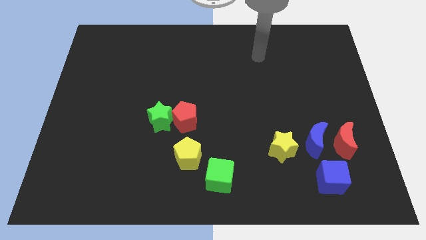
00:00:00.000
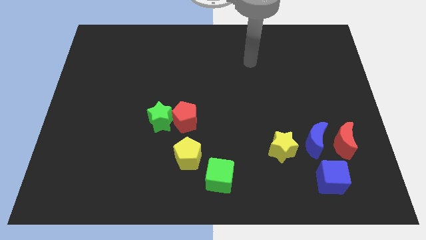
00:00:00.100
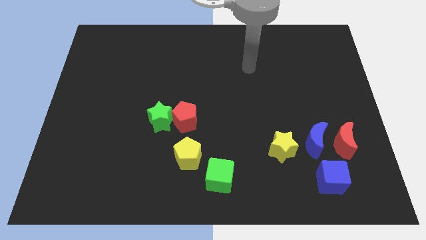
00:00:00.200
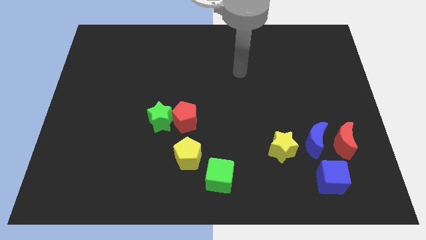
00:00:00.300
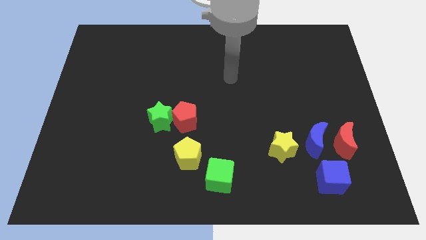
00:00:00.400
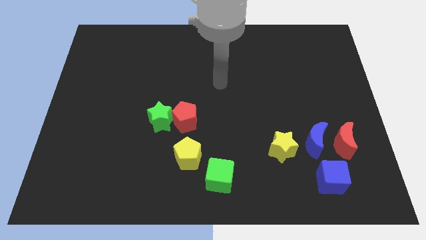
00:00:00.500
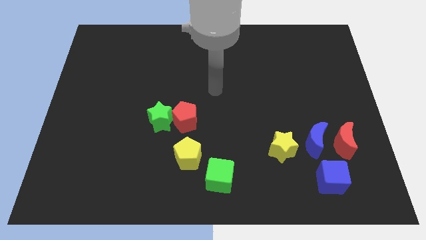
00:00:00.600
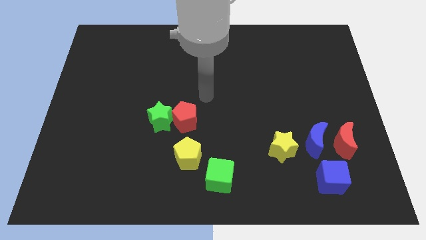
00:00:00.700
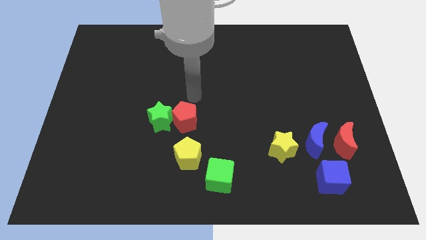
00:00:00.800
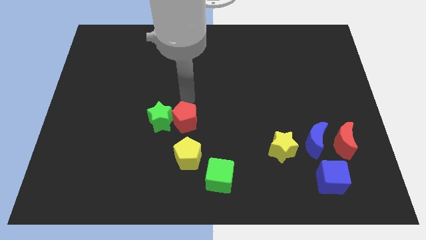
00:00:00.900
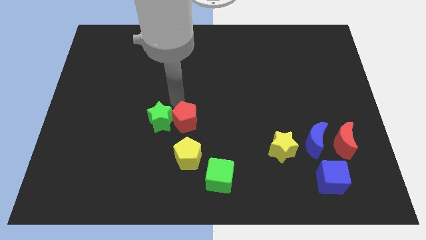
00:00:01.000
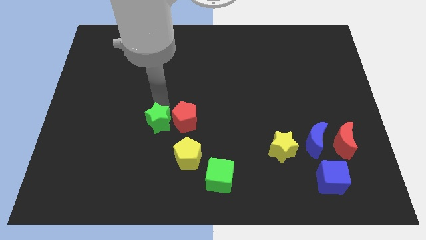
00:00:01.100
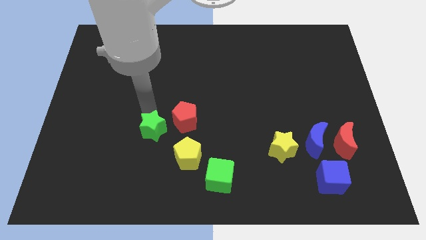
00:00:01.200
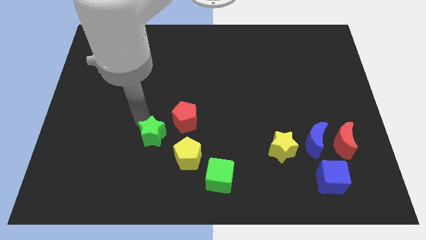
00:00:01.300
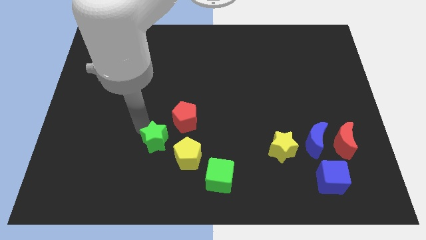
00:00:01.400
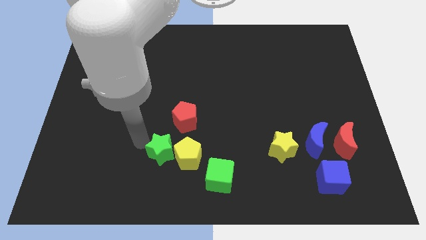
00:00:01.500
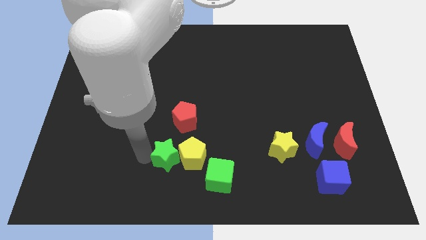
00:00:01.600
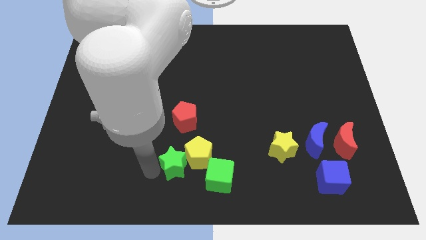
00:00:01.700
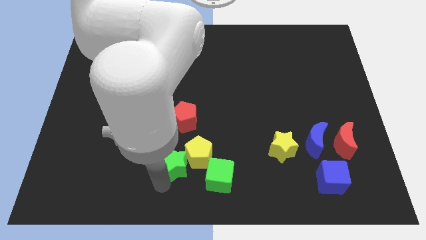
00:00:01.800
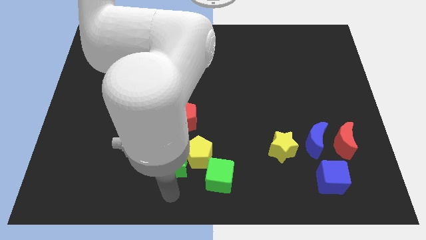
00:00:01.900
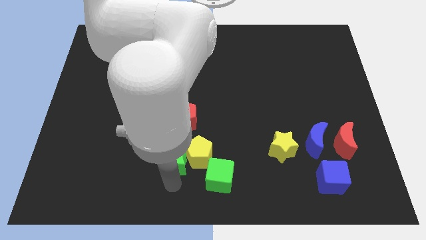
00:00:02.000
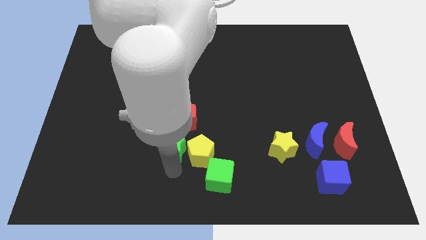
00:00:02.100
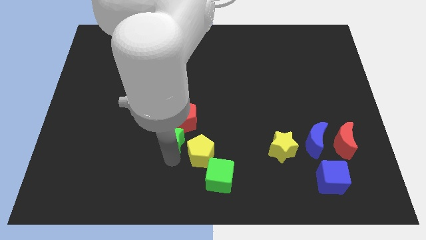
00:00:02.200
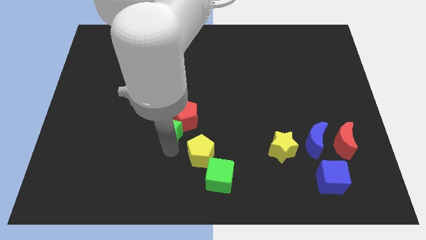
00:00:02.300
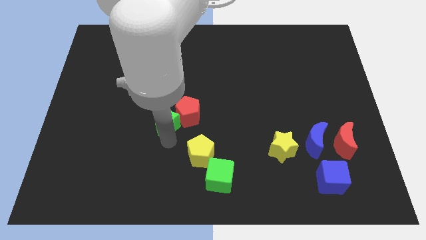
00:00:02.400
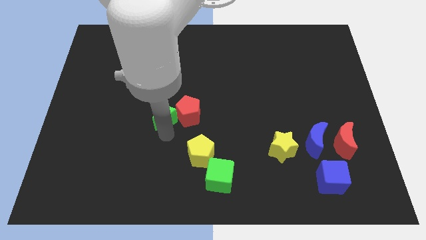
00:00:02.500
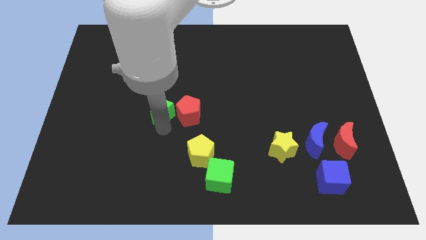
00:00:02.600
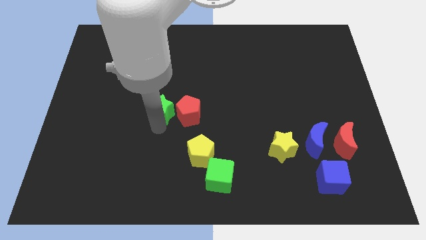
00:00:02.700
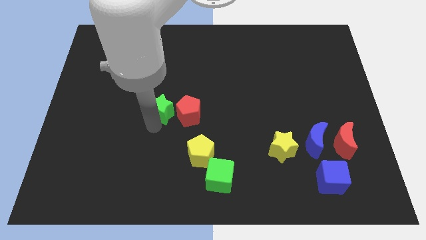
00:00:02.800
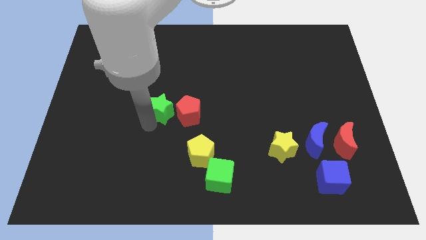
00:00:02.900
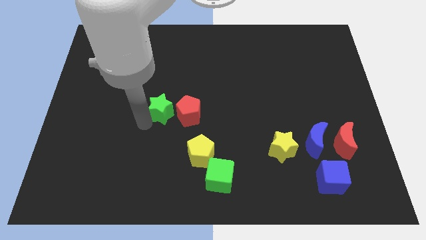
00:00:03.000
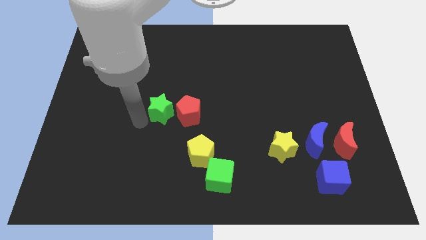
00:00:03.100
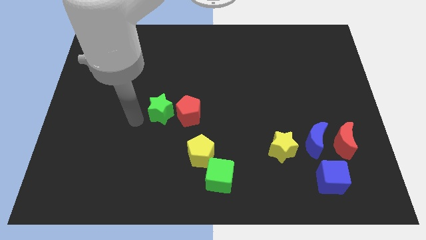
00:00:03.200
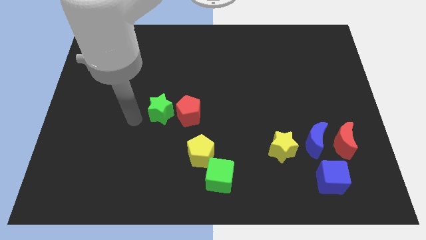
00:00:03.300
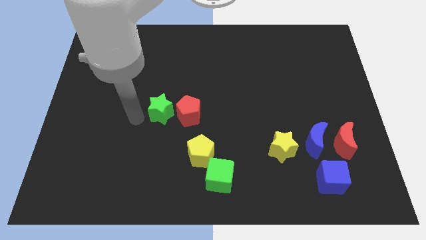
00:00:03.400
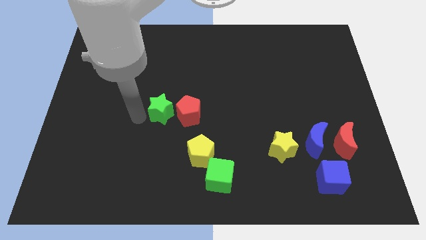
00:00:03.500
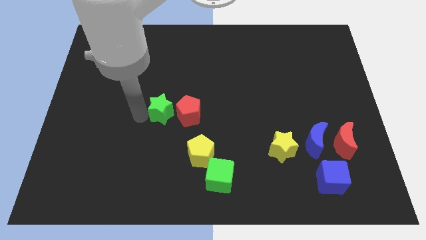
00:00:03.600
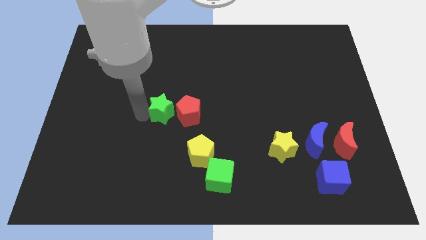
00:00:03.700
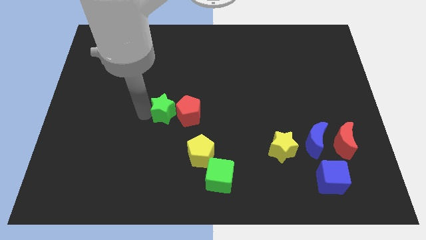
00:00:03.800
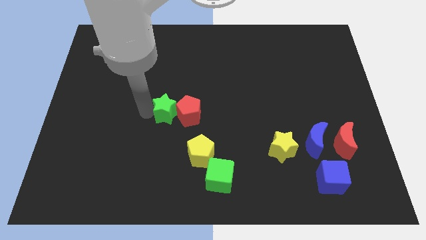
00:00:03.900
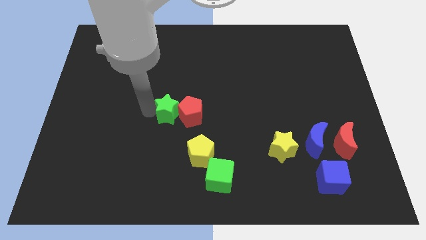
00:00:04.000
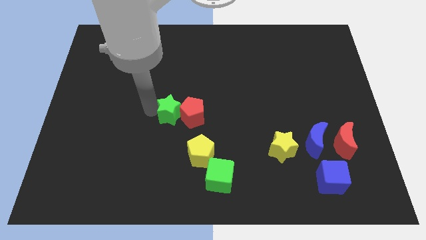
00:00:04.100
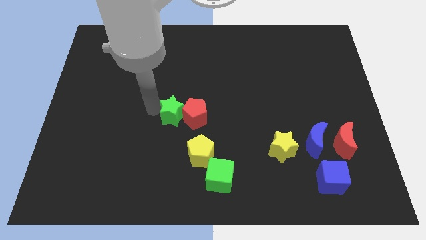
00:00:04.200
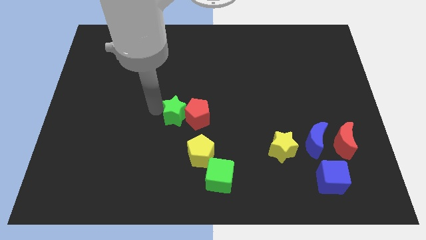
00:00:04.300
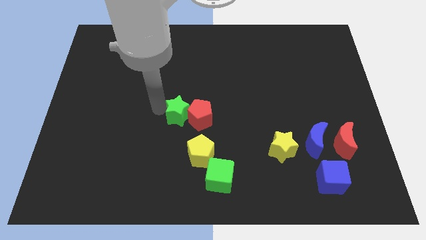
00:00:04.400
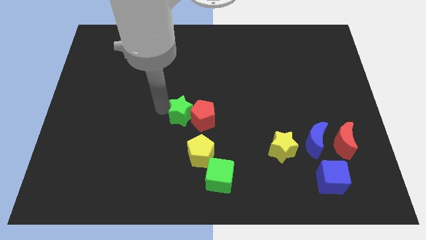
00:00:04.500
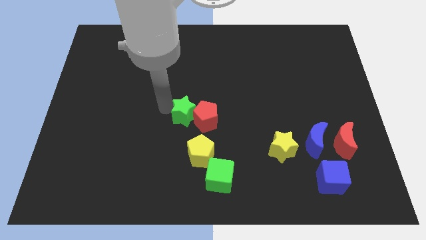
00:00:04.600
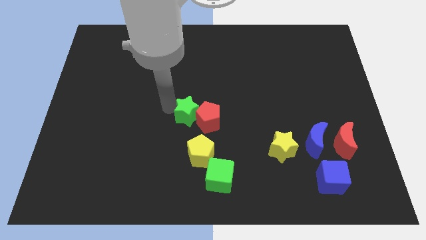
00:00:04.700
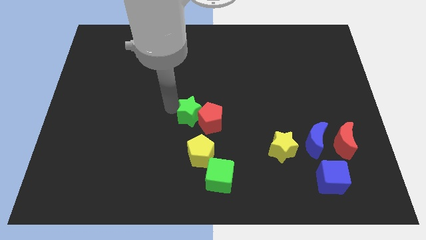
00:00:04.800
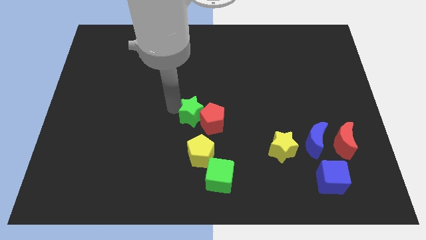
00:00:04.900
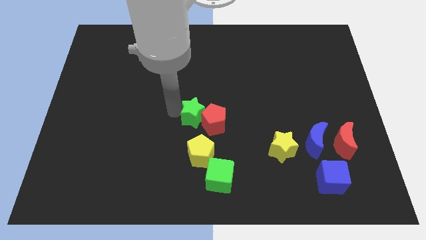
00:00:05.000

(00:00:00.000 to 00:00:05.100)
move the green star right a little

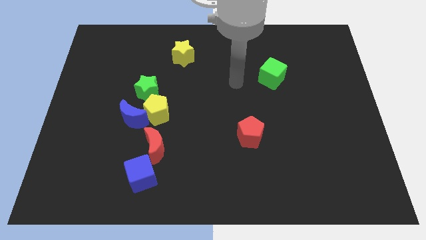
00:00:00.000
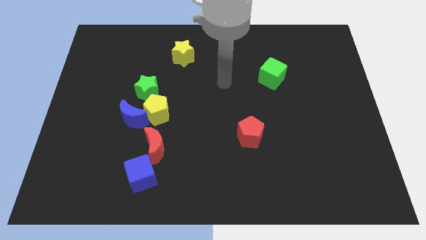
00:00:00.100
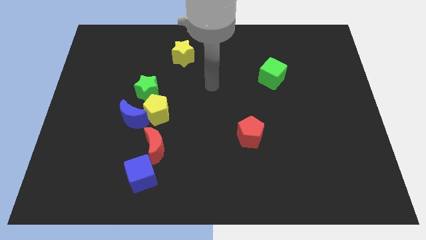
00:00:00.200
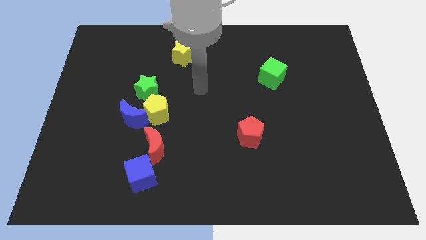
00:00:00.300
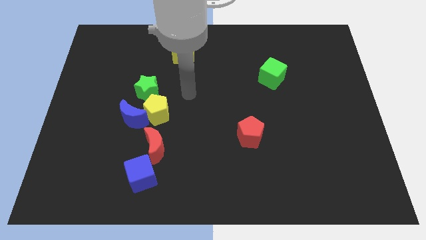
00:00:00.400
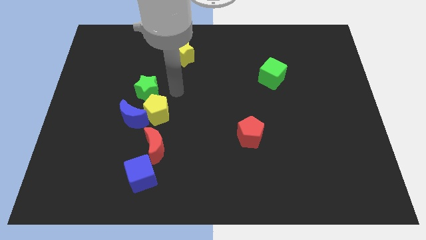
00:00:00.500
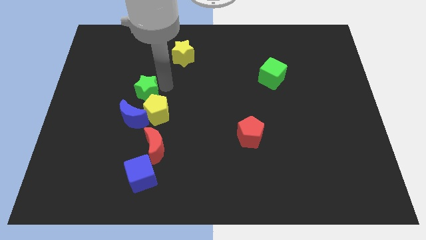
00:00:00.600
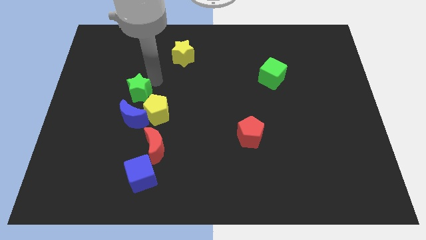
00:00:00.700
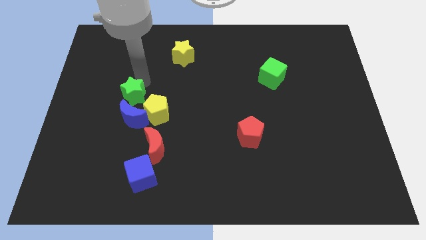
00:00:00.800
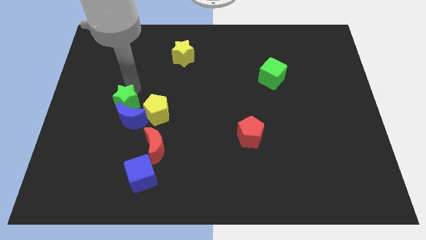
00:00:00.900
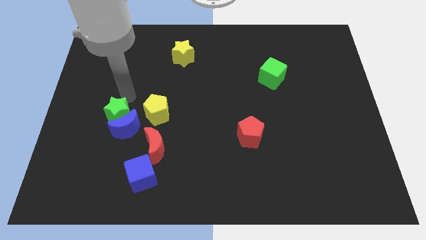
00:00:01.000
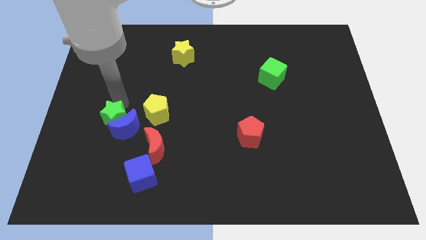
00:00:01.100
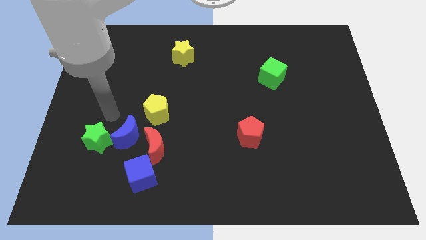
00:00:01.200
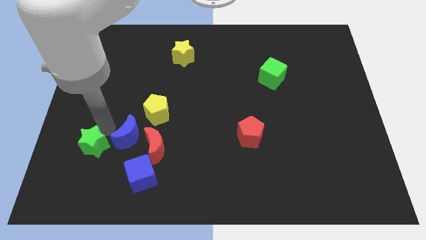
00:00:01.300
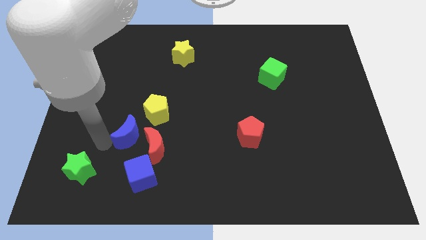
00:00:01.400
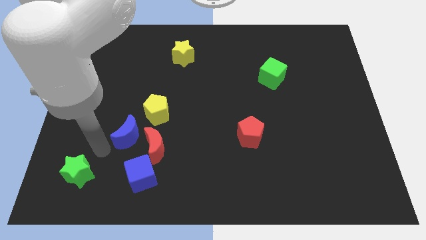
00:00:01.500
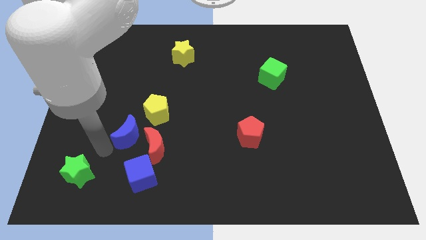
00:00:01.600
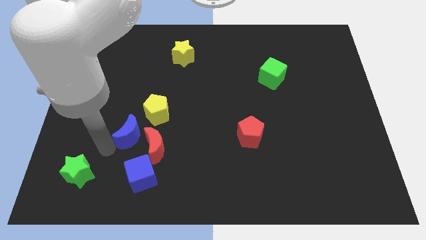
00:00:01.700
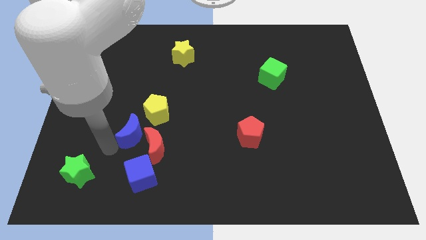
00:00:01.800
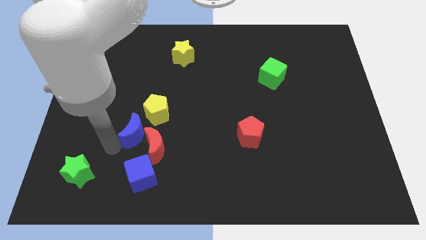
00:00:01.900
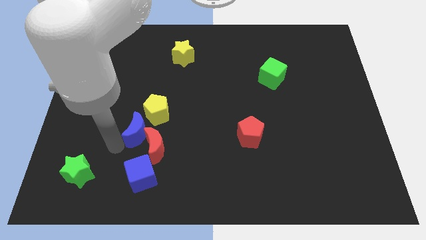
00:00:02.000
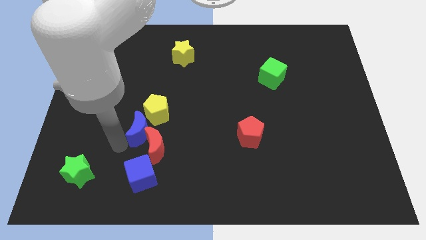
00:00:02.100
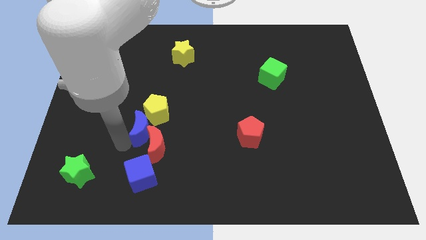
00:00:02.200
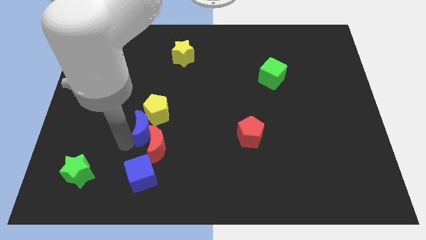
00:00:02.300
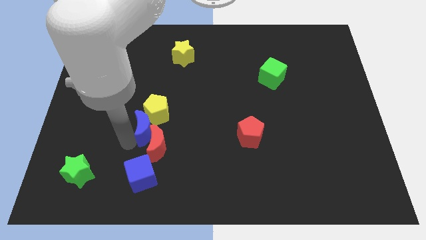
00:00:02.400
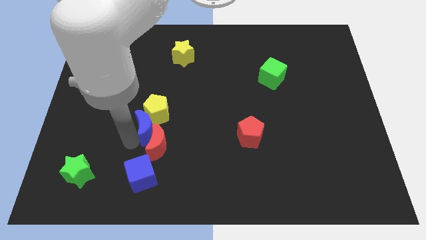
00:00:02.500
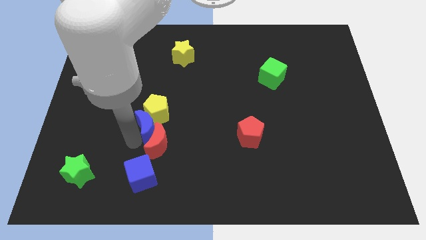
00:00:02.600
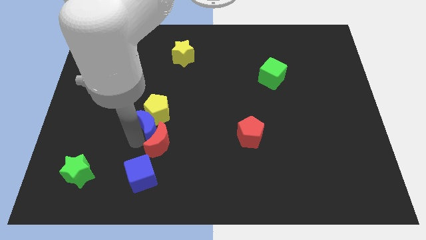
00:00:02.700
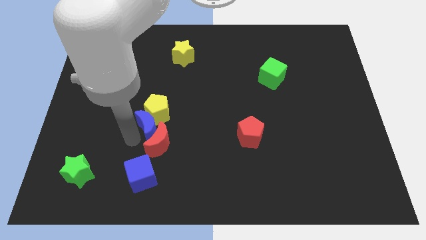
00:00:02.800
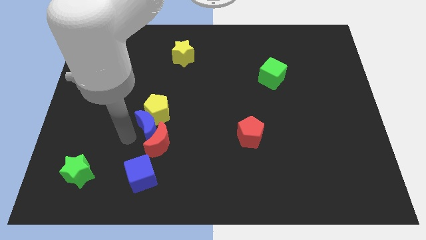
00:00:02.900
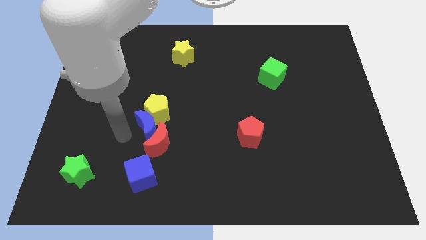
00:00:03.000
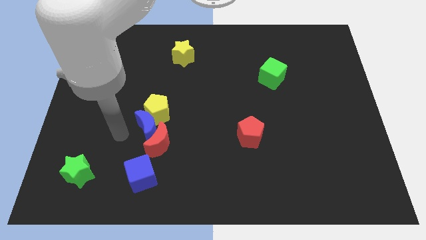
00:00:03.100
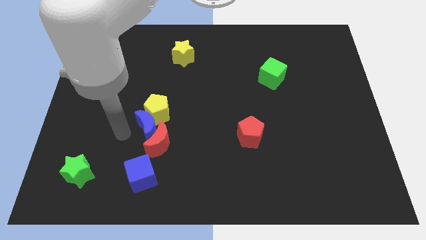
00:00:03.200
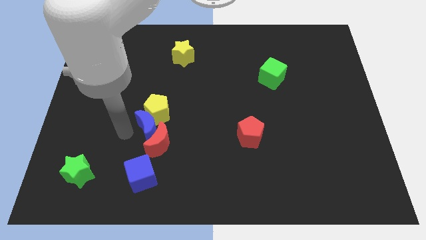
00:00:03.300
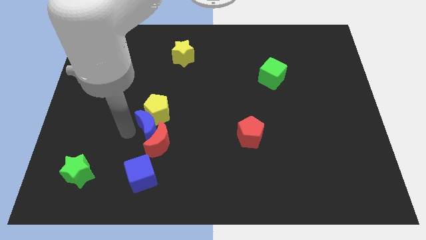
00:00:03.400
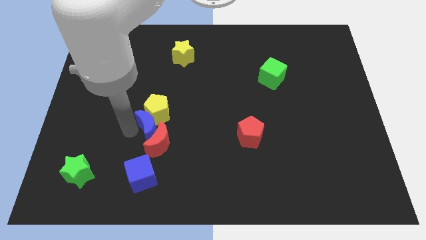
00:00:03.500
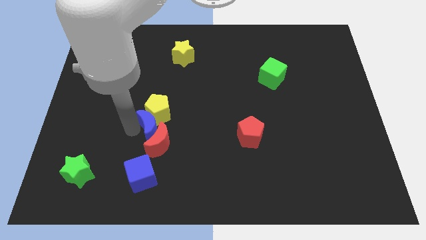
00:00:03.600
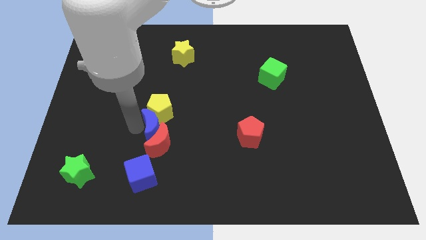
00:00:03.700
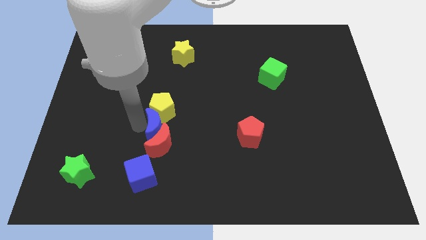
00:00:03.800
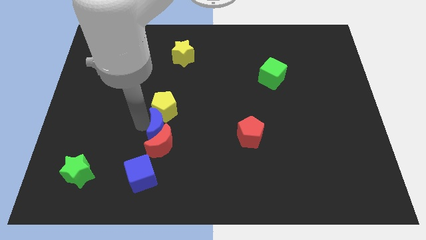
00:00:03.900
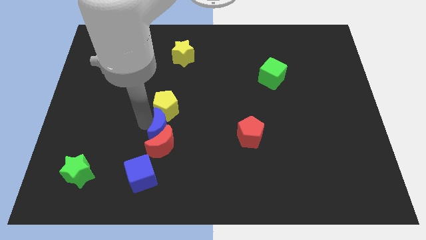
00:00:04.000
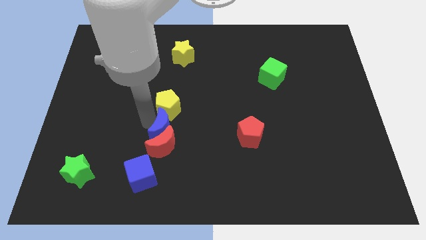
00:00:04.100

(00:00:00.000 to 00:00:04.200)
slightly move the blue moon downwards and then right
